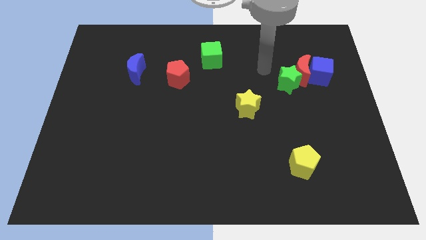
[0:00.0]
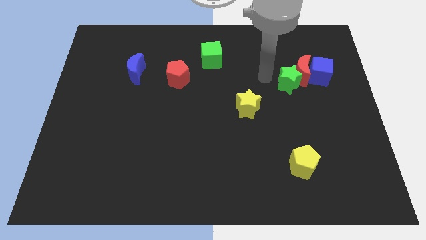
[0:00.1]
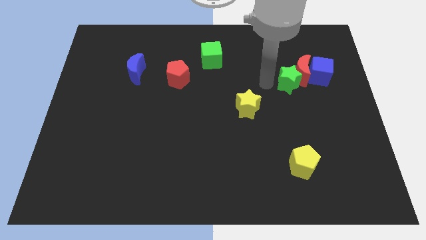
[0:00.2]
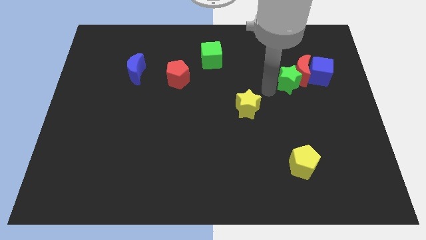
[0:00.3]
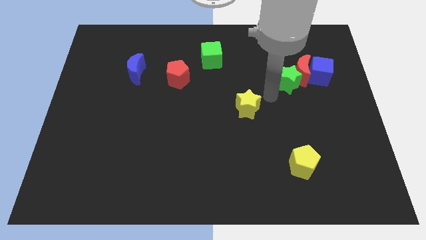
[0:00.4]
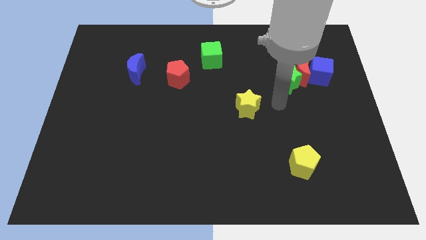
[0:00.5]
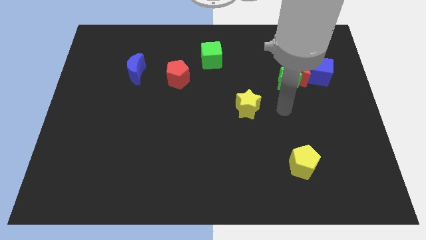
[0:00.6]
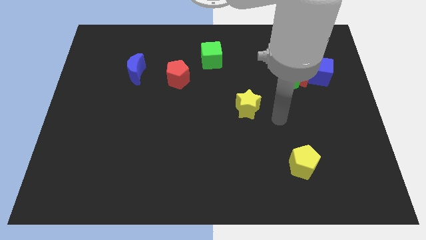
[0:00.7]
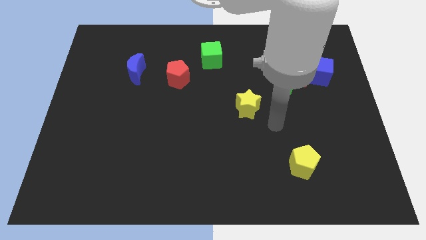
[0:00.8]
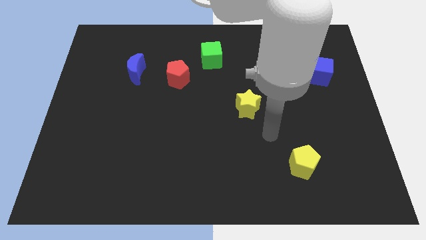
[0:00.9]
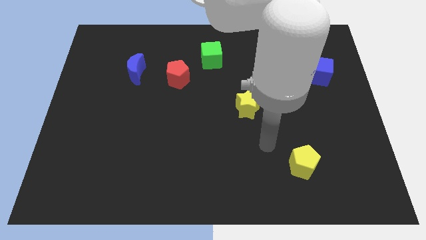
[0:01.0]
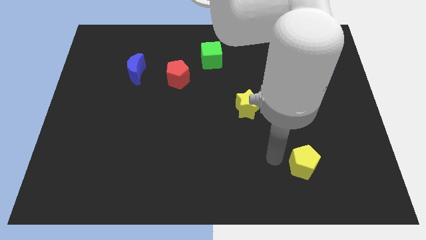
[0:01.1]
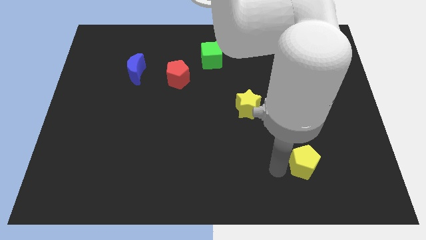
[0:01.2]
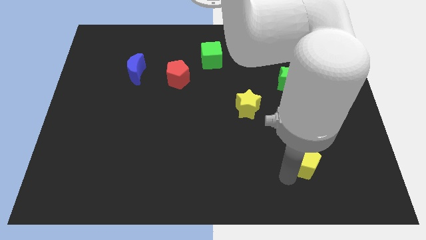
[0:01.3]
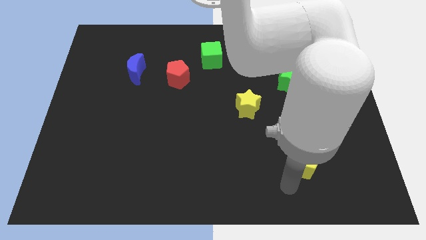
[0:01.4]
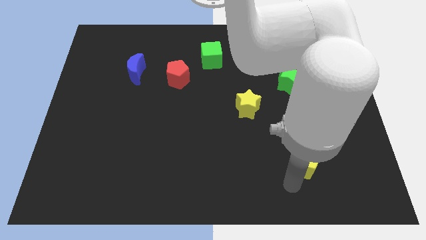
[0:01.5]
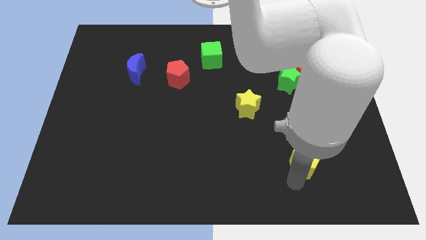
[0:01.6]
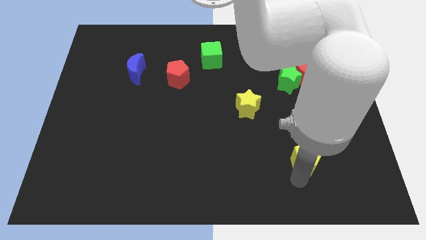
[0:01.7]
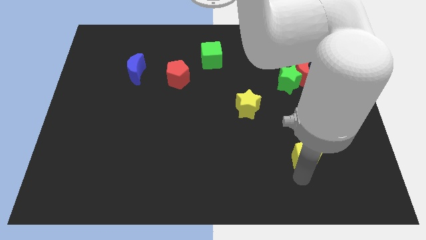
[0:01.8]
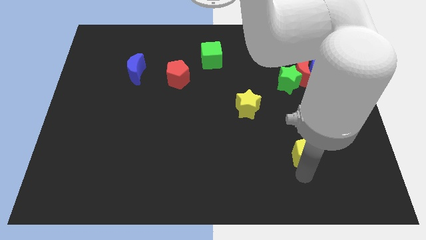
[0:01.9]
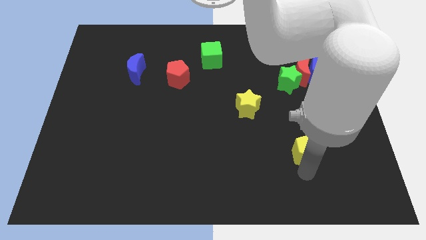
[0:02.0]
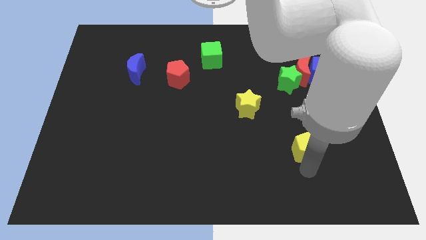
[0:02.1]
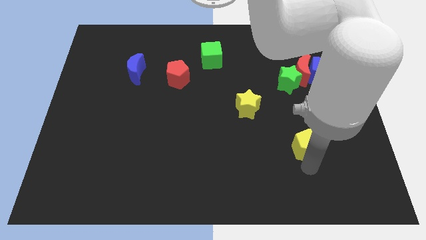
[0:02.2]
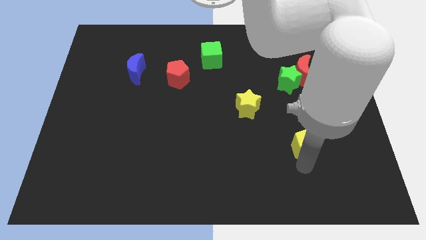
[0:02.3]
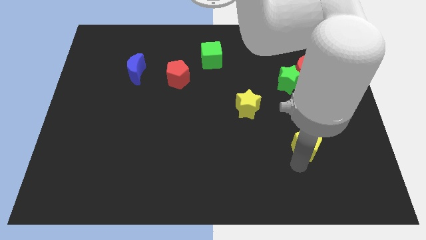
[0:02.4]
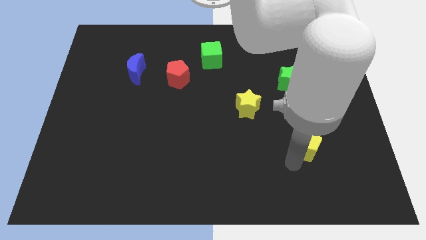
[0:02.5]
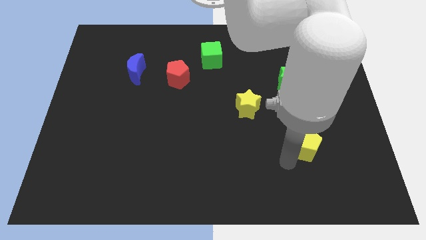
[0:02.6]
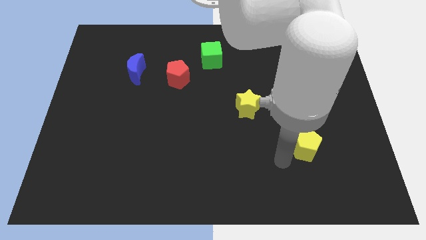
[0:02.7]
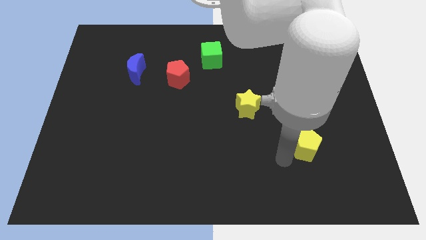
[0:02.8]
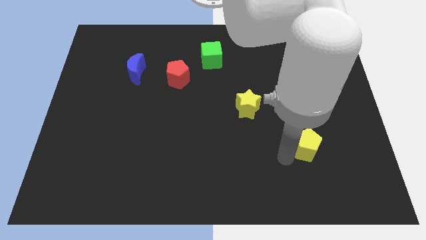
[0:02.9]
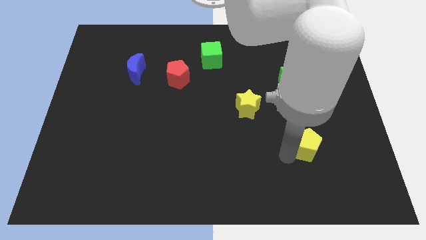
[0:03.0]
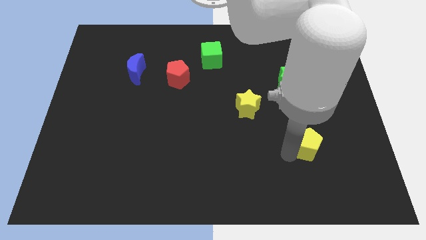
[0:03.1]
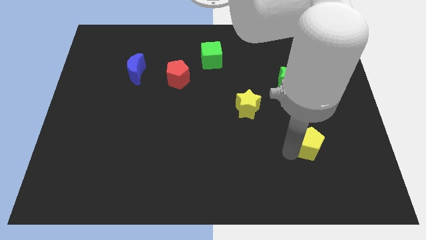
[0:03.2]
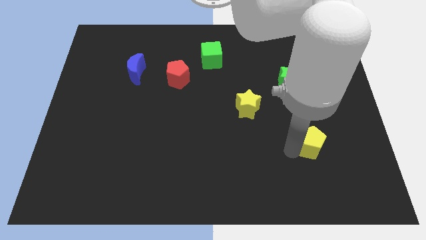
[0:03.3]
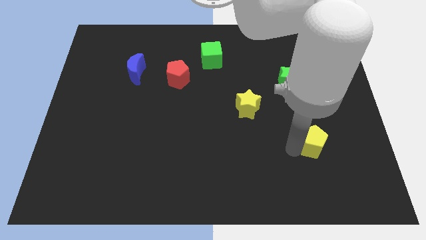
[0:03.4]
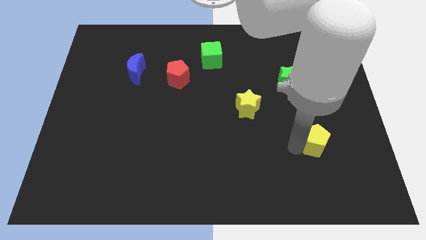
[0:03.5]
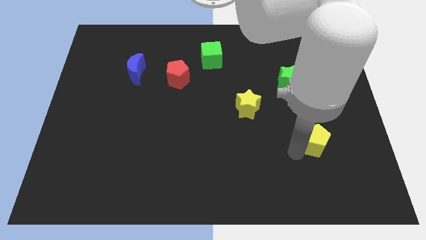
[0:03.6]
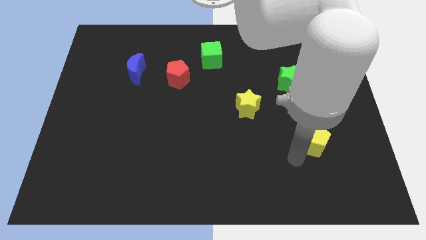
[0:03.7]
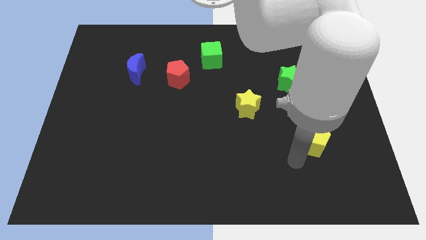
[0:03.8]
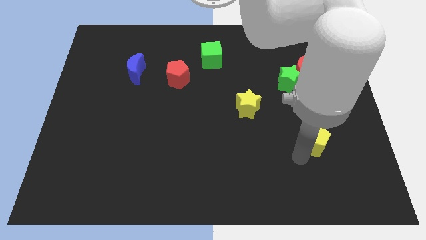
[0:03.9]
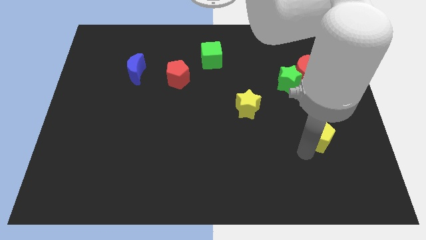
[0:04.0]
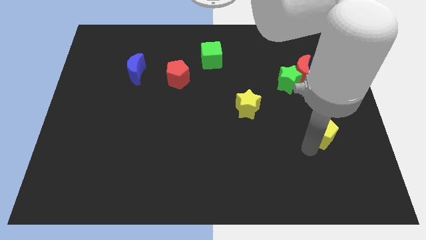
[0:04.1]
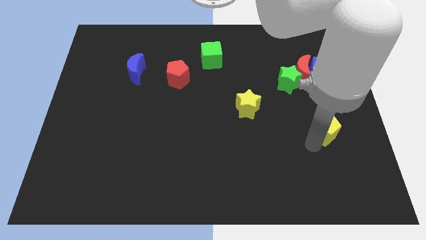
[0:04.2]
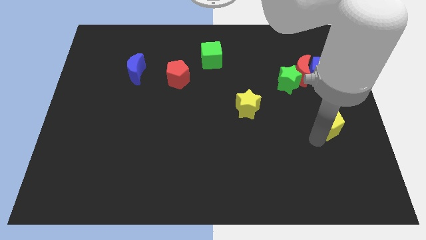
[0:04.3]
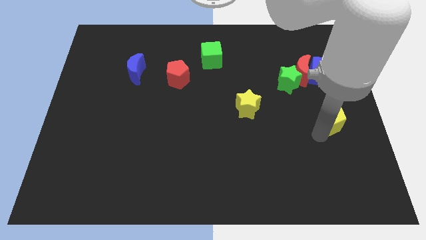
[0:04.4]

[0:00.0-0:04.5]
slide the yellow pentagon to the right side of the board

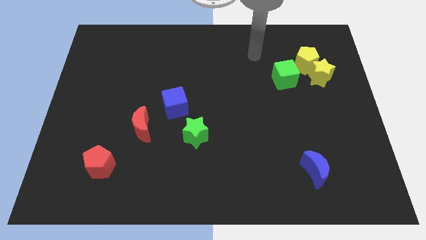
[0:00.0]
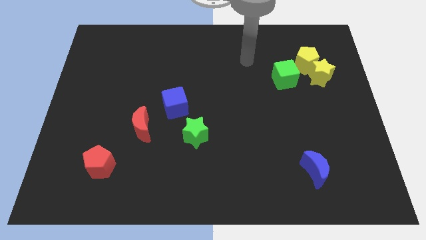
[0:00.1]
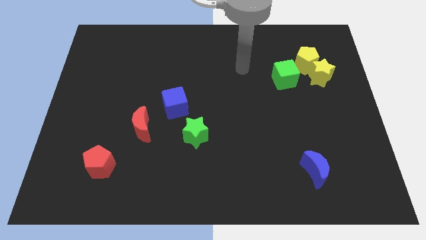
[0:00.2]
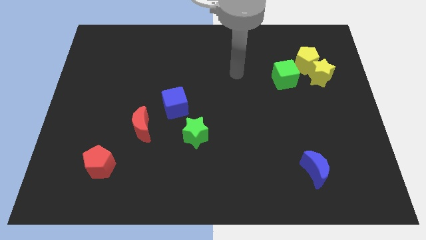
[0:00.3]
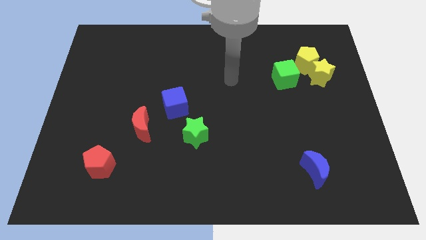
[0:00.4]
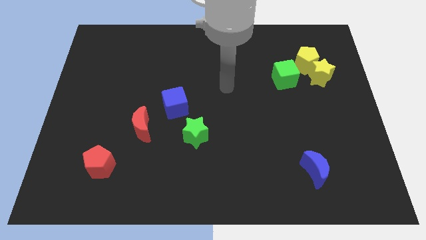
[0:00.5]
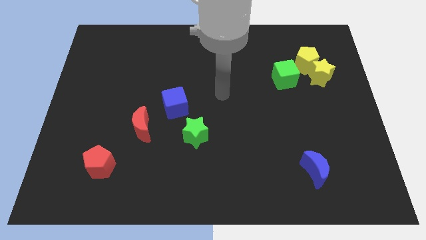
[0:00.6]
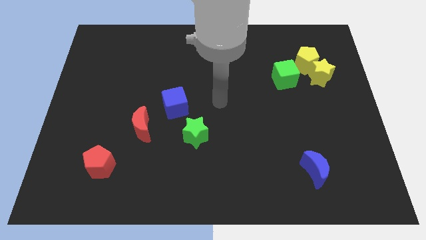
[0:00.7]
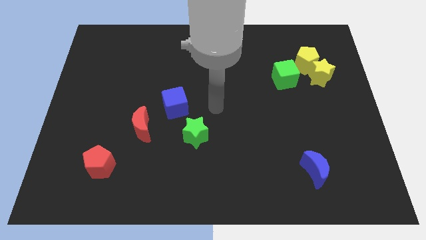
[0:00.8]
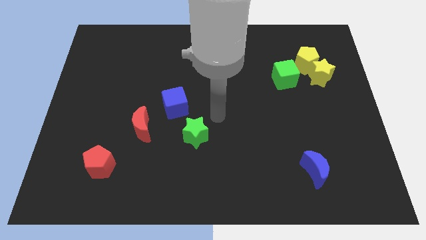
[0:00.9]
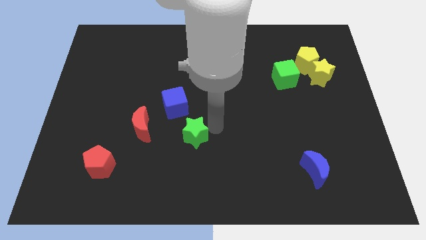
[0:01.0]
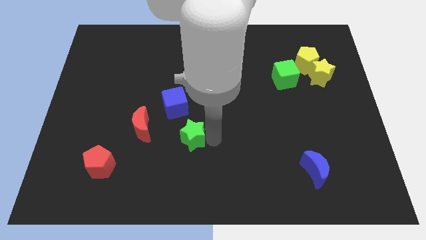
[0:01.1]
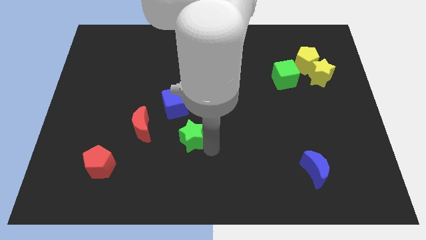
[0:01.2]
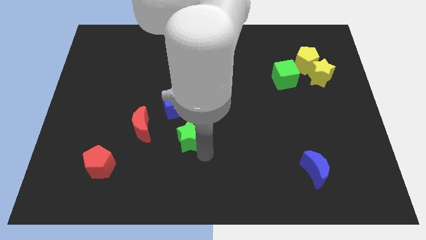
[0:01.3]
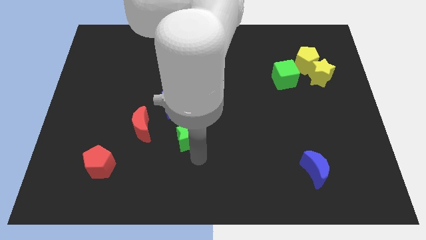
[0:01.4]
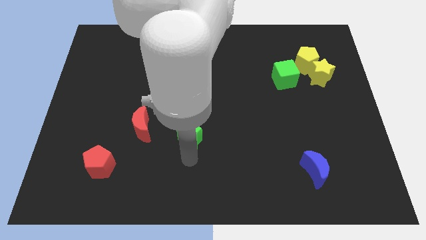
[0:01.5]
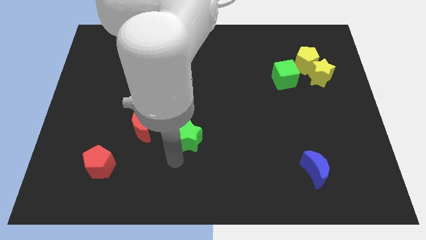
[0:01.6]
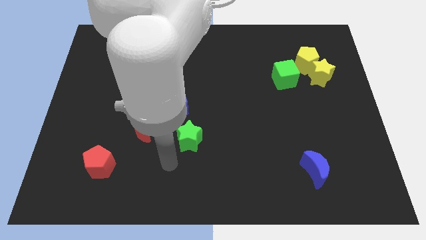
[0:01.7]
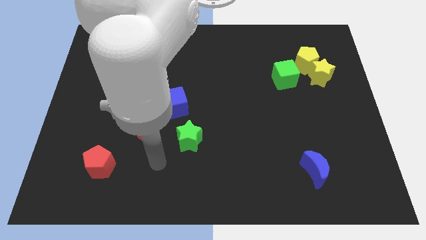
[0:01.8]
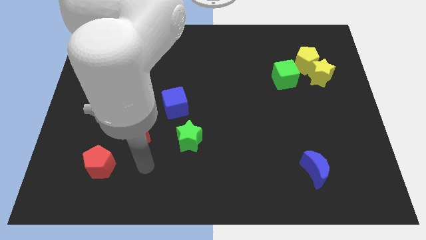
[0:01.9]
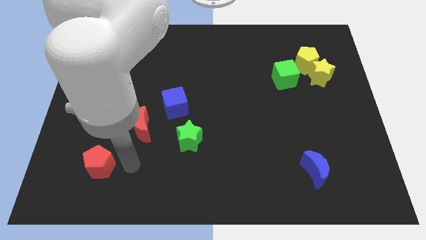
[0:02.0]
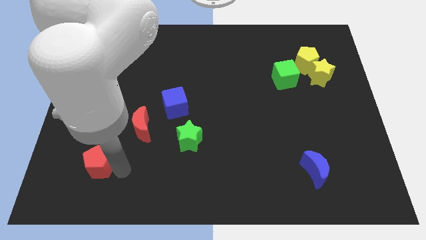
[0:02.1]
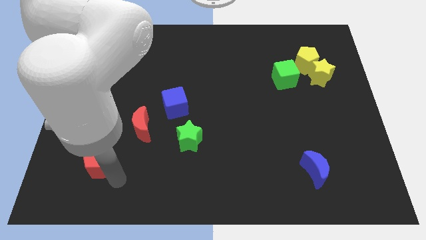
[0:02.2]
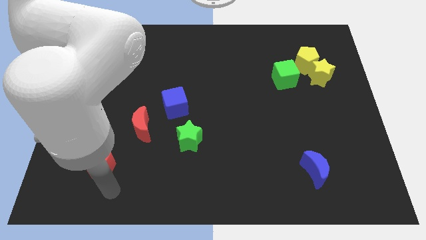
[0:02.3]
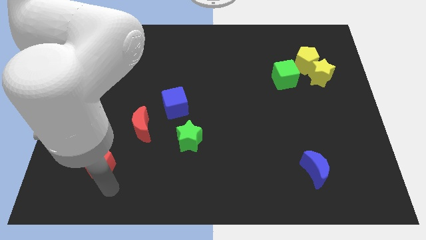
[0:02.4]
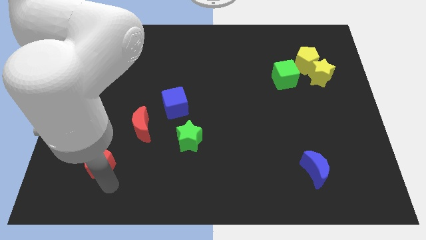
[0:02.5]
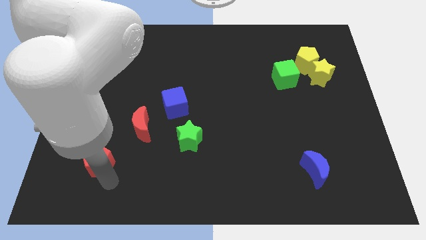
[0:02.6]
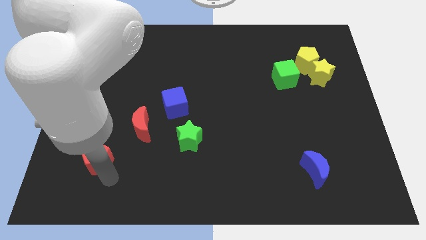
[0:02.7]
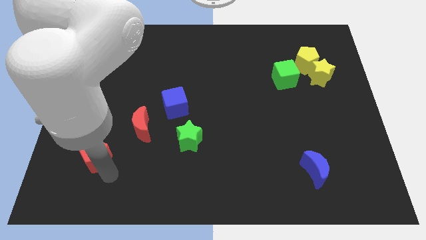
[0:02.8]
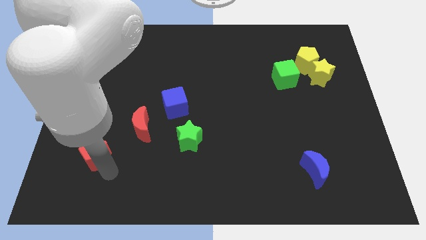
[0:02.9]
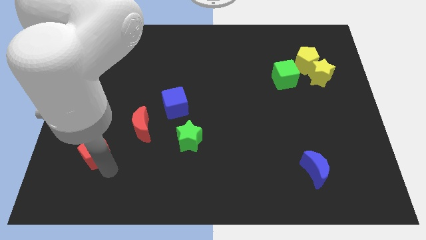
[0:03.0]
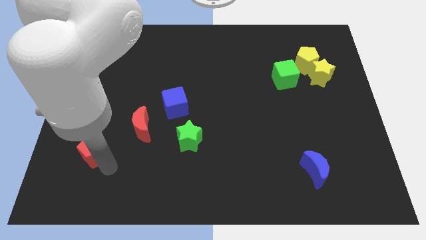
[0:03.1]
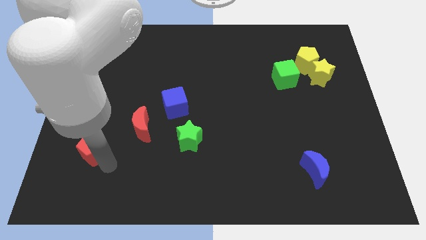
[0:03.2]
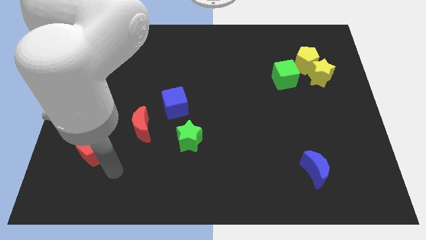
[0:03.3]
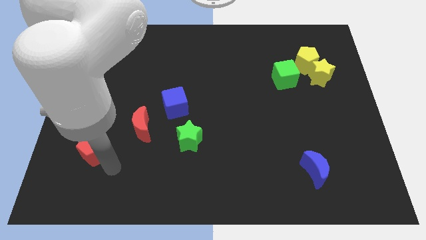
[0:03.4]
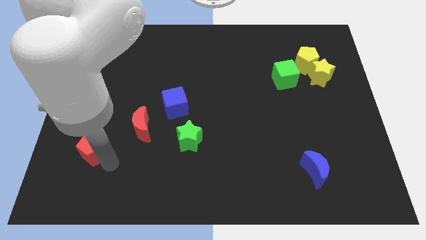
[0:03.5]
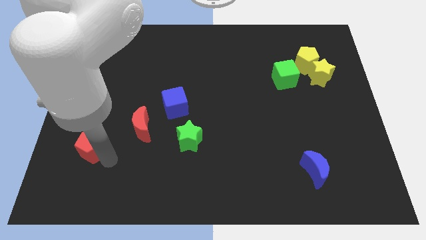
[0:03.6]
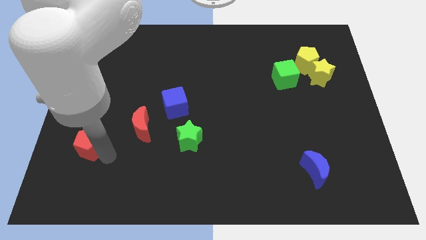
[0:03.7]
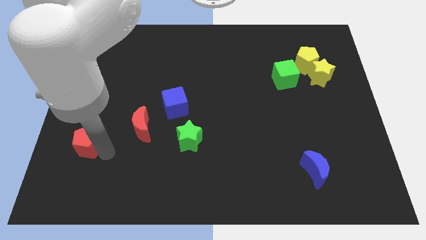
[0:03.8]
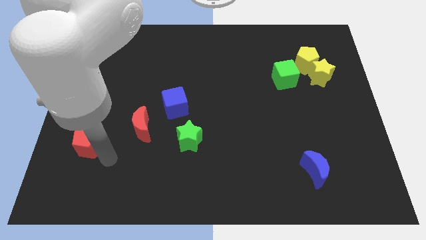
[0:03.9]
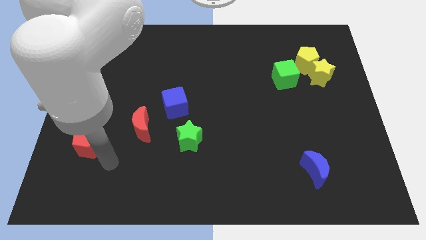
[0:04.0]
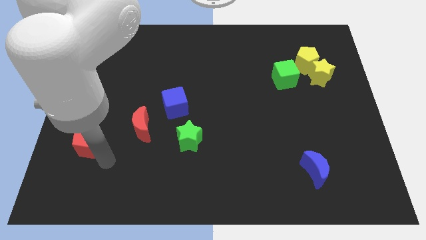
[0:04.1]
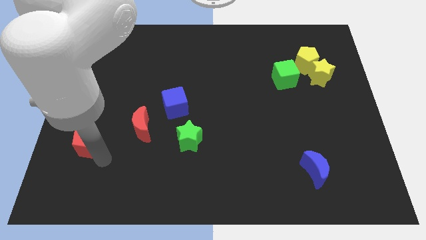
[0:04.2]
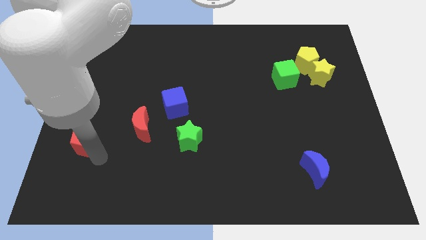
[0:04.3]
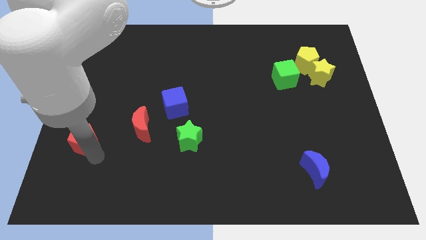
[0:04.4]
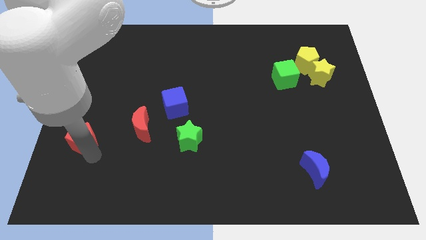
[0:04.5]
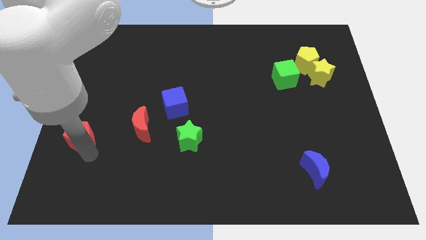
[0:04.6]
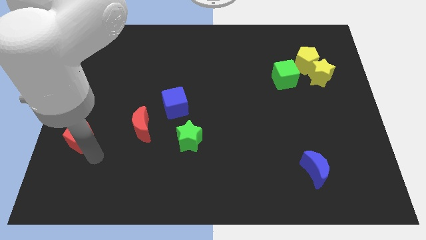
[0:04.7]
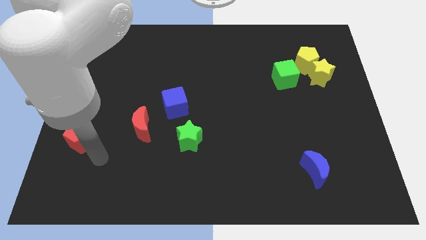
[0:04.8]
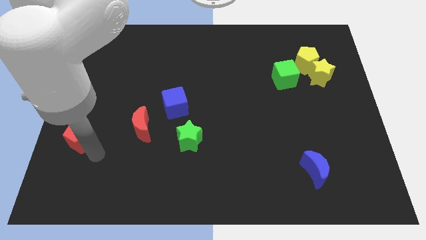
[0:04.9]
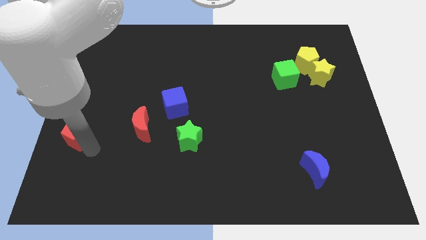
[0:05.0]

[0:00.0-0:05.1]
move the red pentagon to the center left
